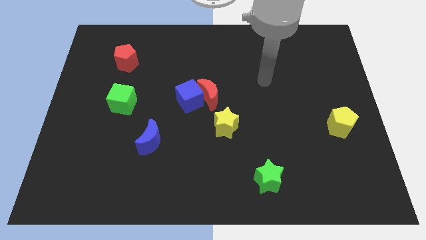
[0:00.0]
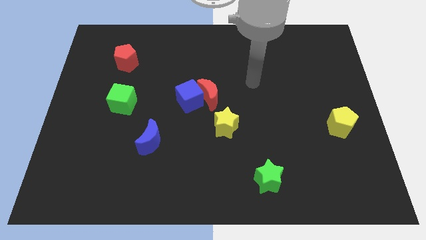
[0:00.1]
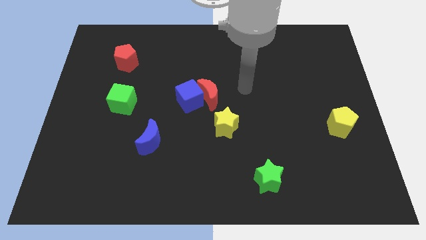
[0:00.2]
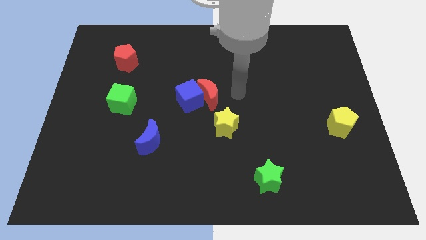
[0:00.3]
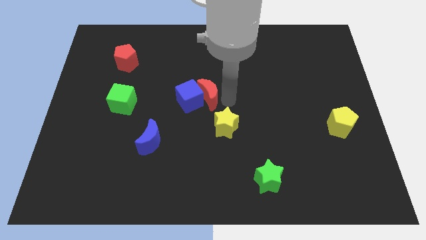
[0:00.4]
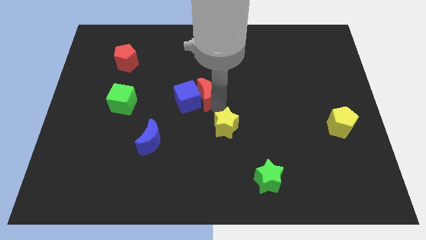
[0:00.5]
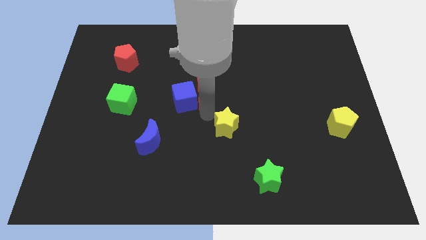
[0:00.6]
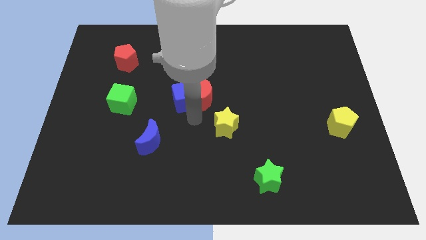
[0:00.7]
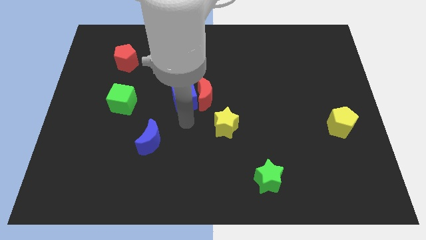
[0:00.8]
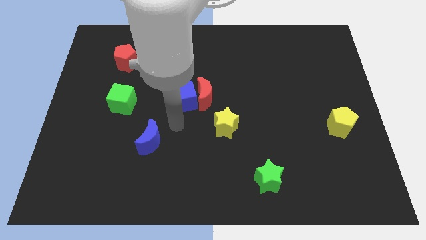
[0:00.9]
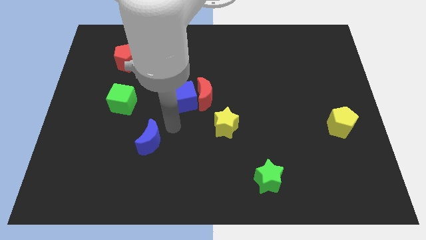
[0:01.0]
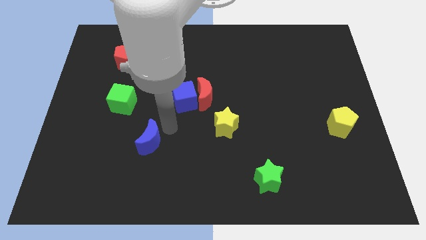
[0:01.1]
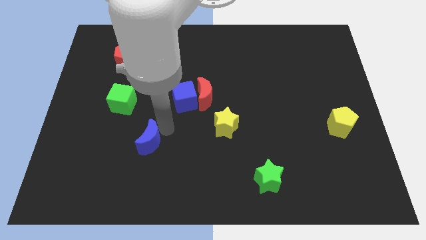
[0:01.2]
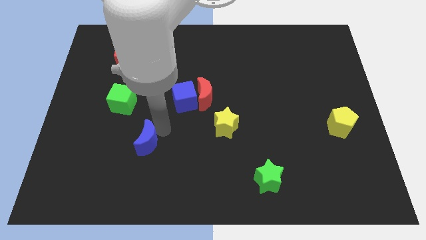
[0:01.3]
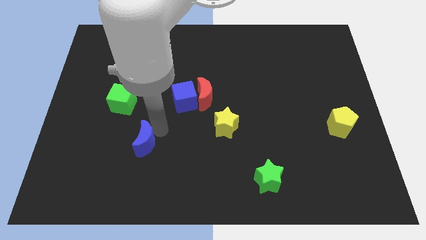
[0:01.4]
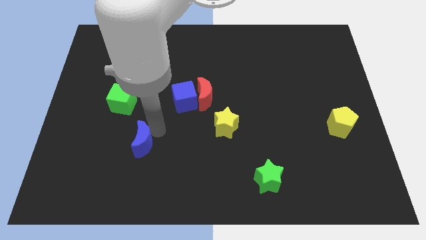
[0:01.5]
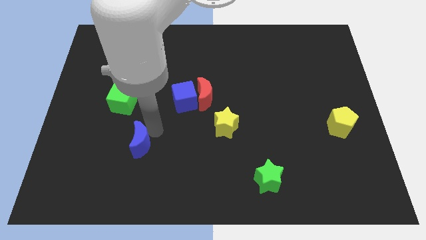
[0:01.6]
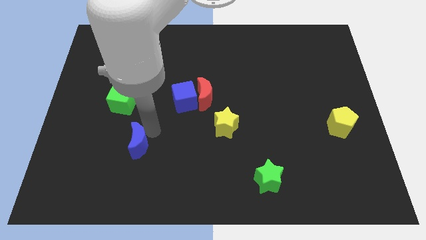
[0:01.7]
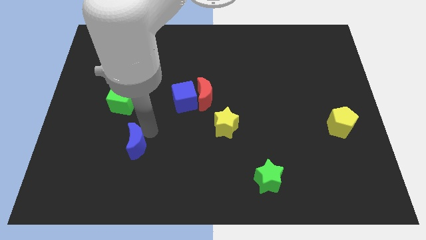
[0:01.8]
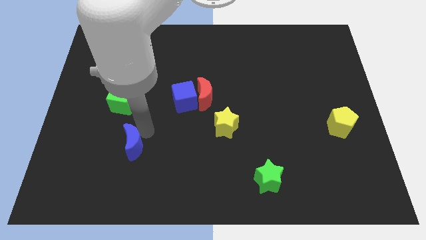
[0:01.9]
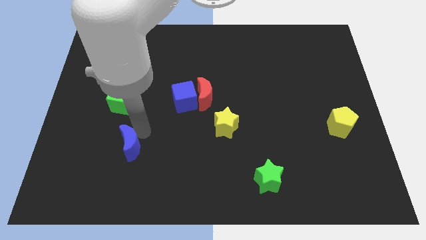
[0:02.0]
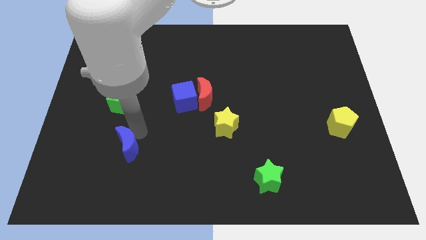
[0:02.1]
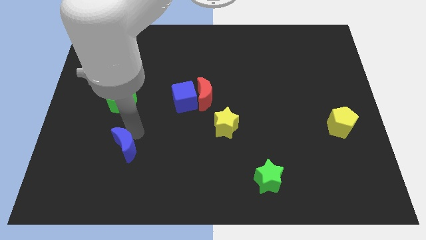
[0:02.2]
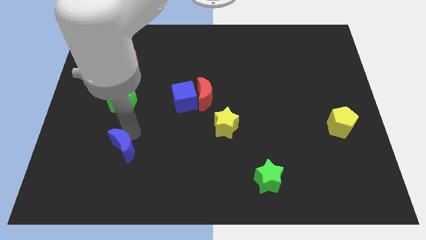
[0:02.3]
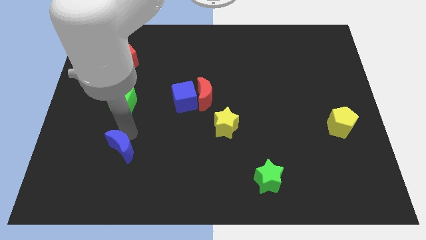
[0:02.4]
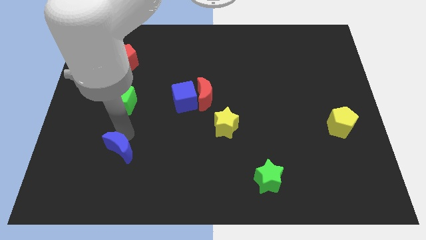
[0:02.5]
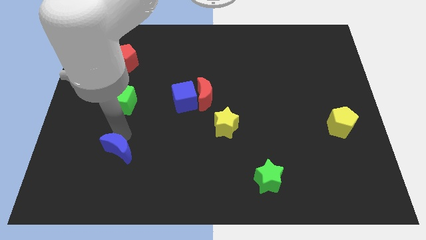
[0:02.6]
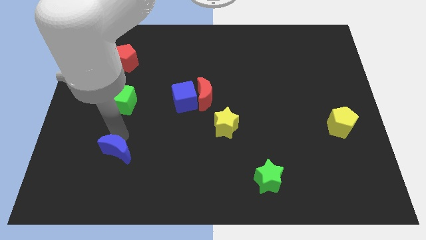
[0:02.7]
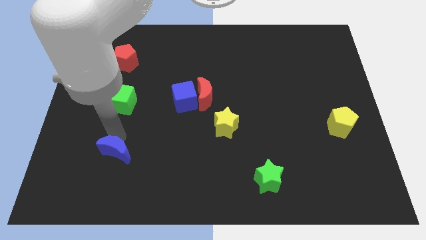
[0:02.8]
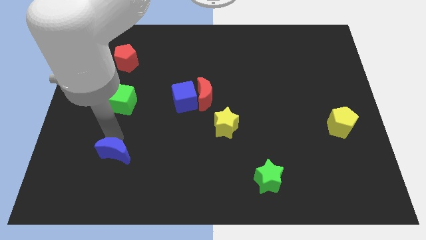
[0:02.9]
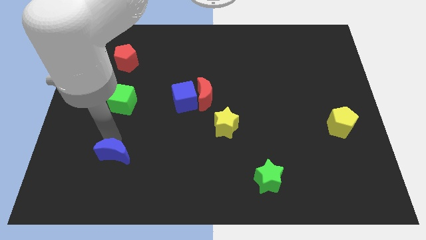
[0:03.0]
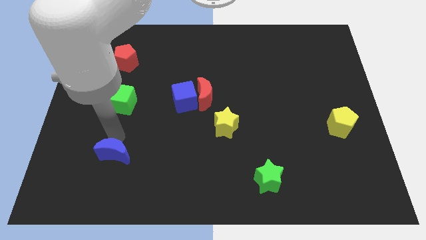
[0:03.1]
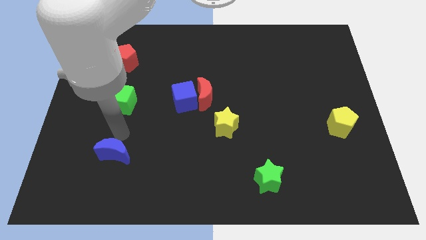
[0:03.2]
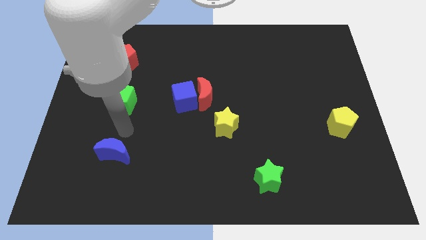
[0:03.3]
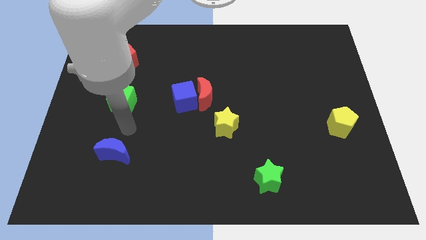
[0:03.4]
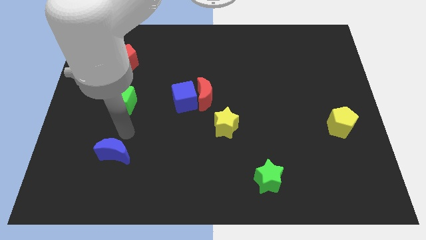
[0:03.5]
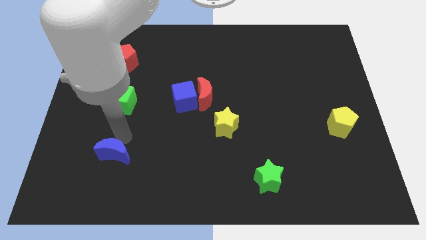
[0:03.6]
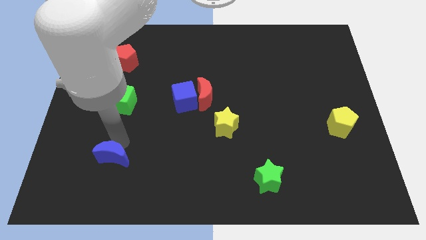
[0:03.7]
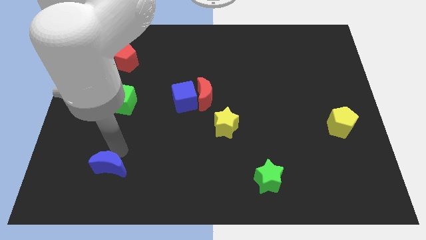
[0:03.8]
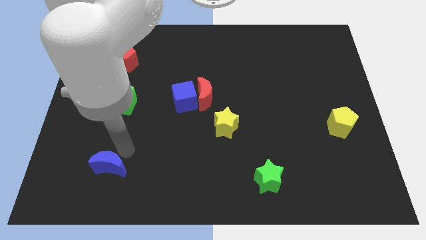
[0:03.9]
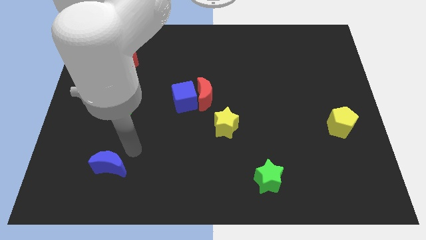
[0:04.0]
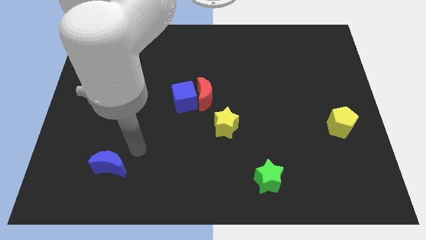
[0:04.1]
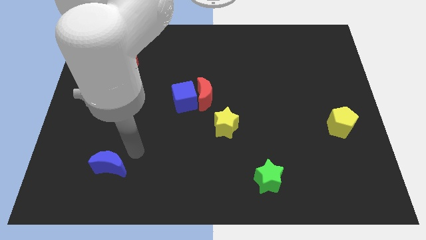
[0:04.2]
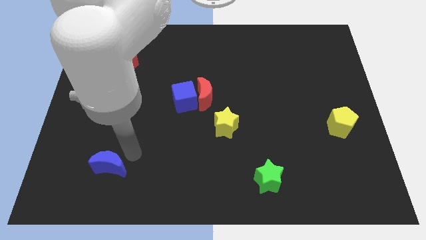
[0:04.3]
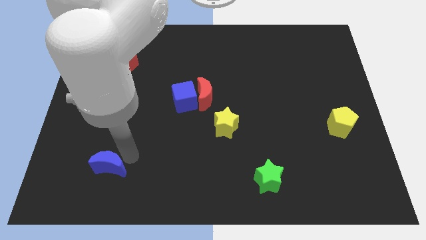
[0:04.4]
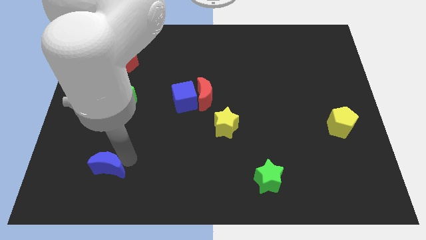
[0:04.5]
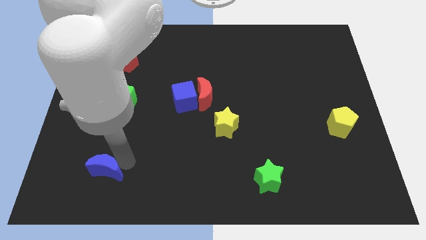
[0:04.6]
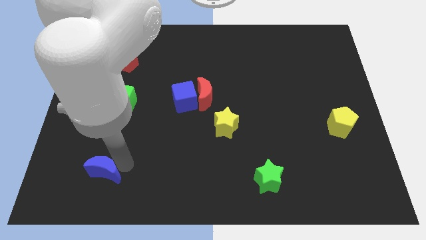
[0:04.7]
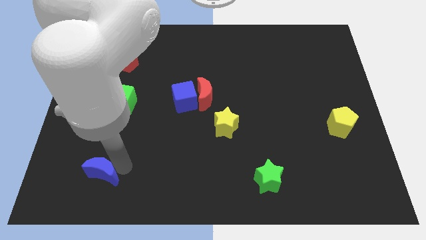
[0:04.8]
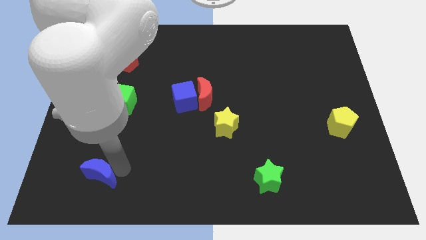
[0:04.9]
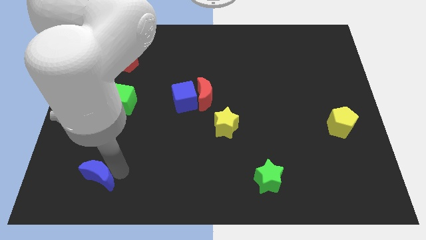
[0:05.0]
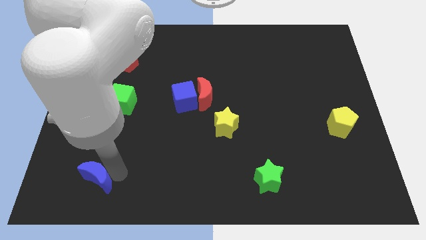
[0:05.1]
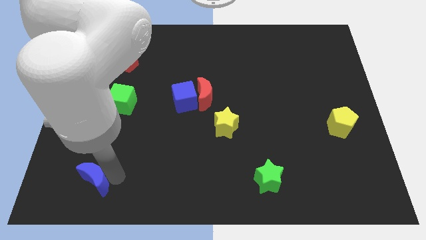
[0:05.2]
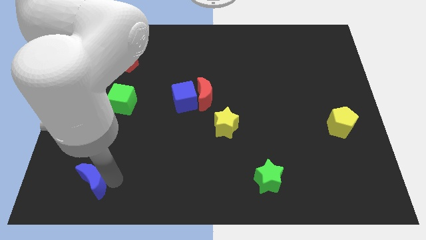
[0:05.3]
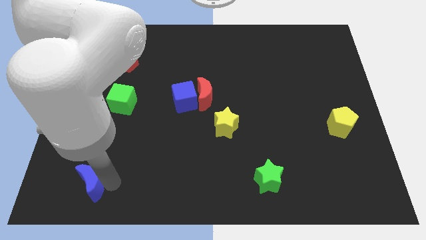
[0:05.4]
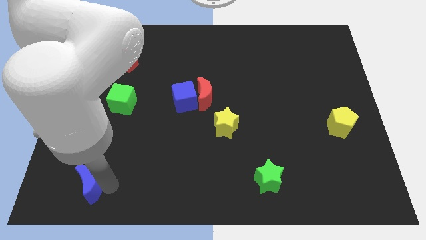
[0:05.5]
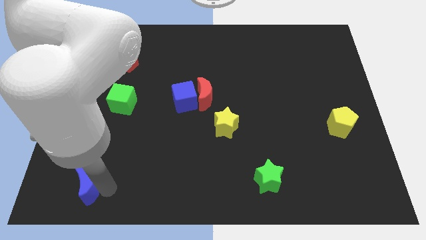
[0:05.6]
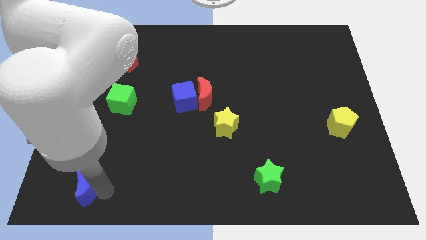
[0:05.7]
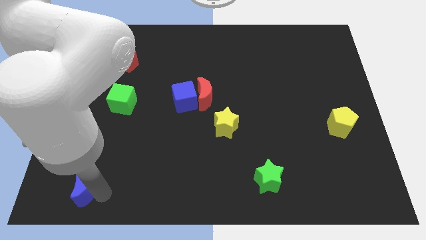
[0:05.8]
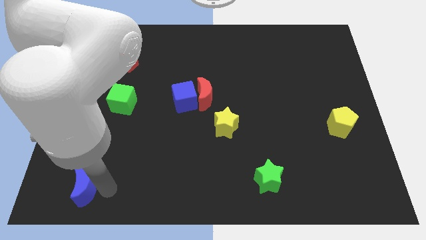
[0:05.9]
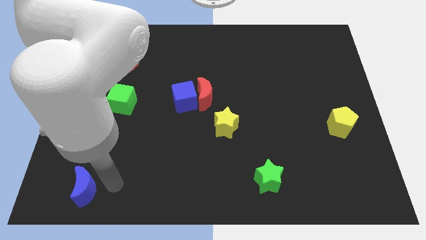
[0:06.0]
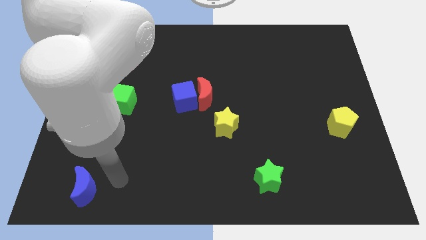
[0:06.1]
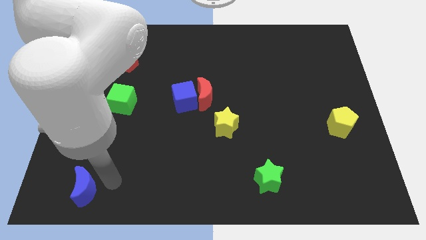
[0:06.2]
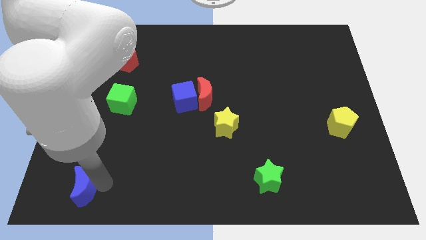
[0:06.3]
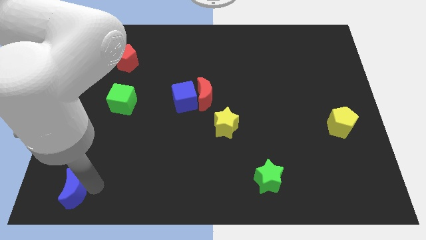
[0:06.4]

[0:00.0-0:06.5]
slide the blue moon to the bottom left of the board
